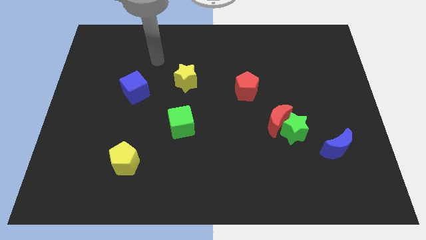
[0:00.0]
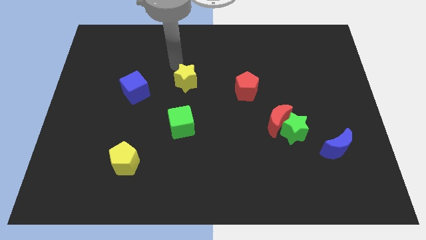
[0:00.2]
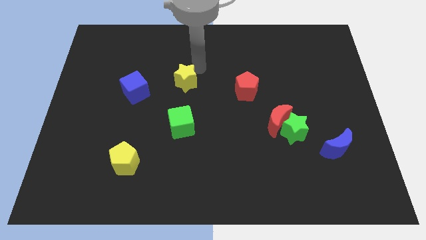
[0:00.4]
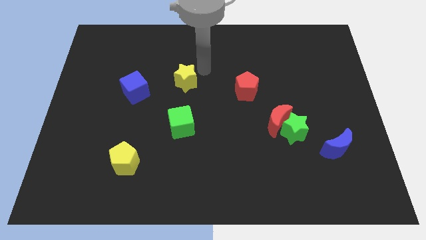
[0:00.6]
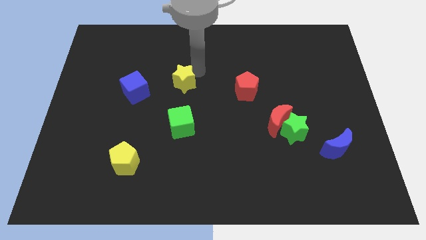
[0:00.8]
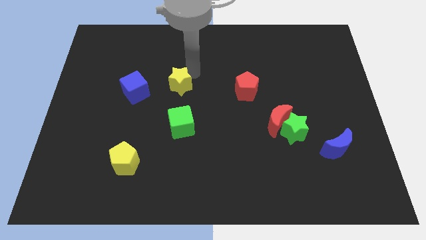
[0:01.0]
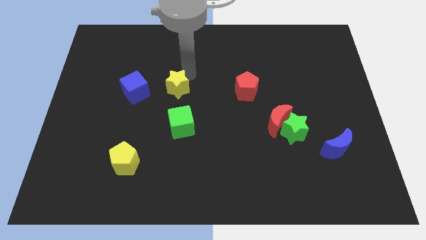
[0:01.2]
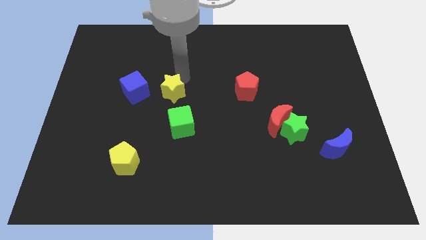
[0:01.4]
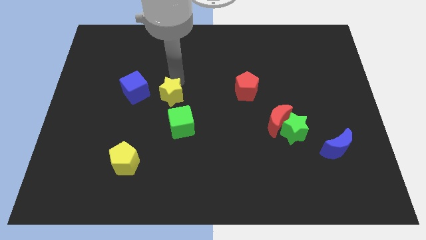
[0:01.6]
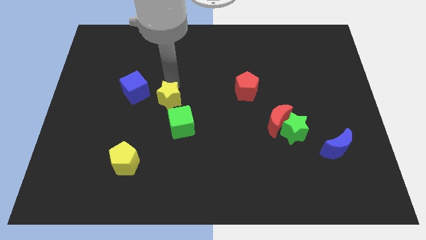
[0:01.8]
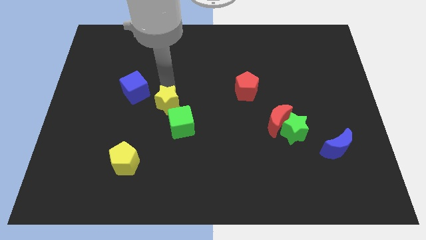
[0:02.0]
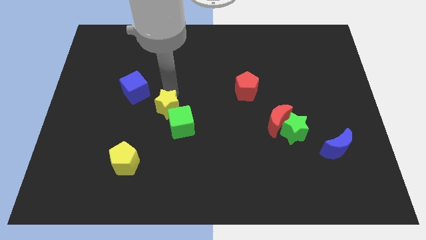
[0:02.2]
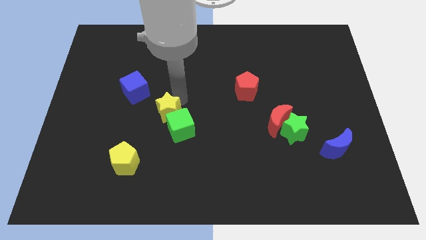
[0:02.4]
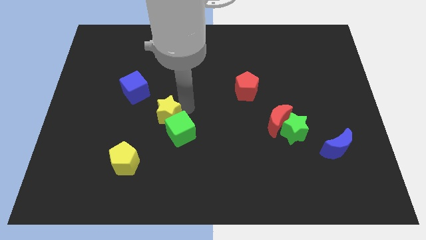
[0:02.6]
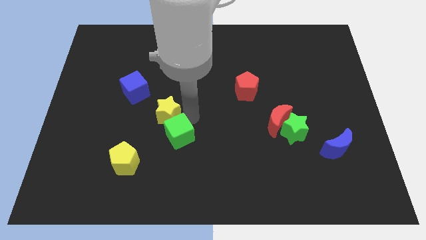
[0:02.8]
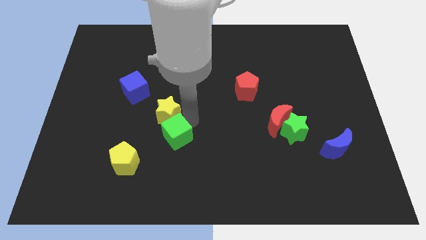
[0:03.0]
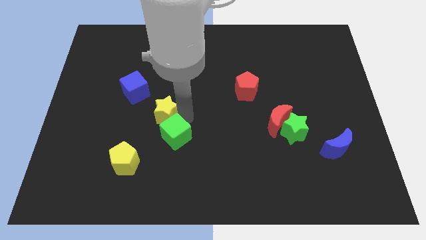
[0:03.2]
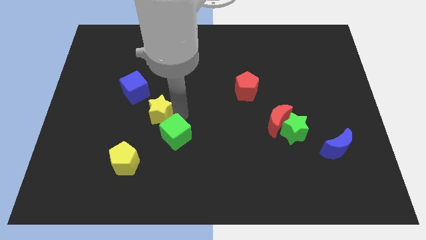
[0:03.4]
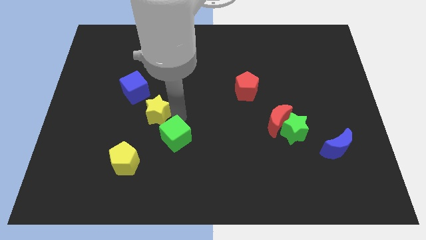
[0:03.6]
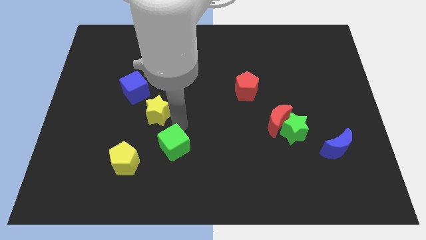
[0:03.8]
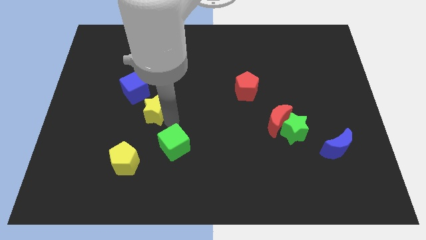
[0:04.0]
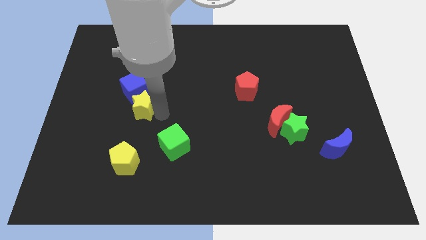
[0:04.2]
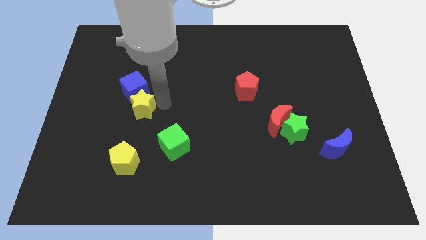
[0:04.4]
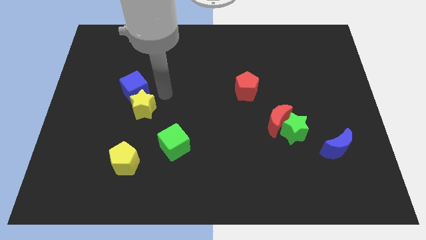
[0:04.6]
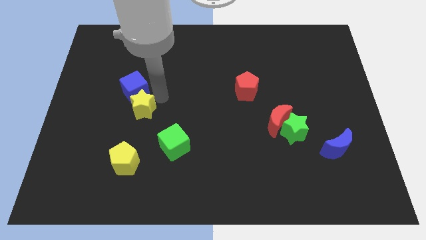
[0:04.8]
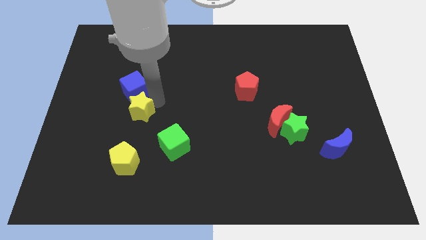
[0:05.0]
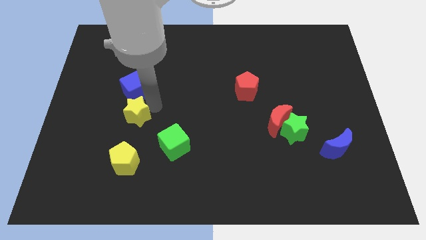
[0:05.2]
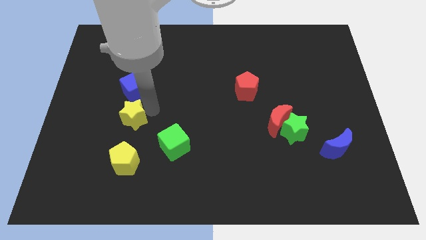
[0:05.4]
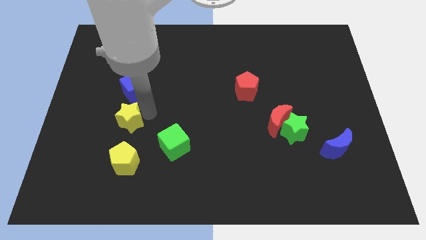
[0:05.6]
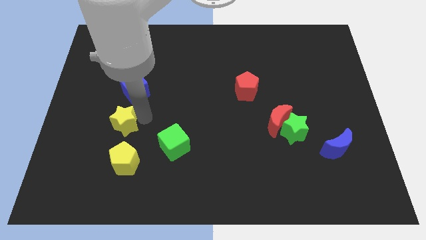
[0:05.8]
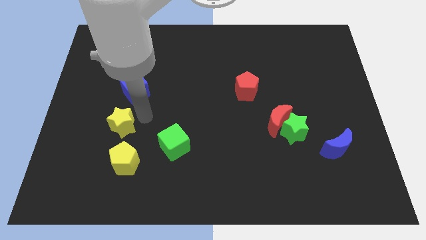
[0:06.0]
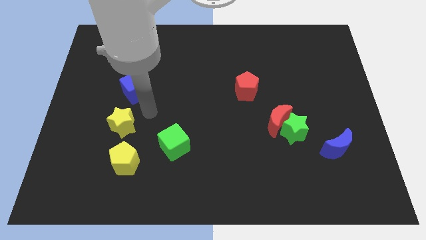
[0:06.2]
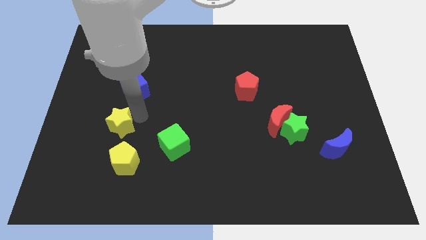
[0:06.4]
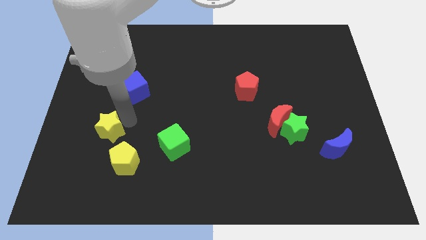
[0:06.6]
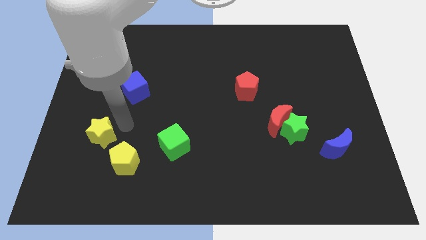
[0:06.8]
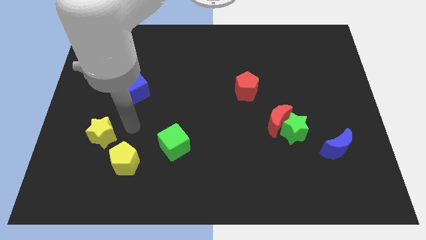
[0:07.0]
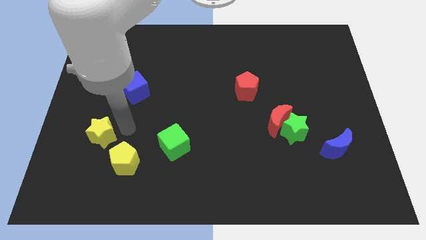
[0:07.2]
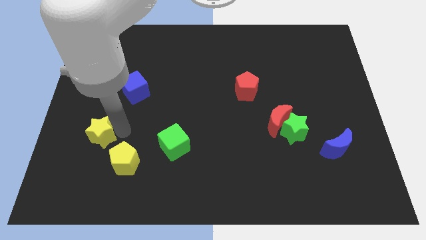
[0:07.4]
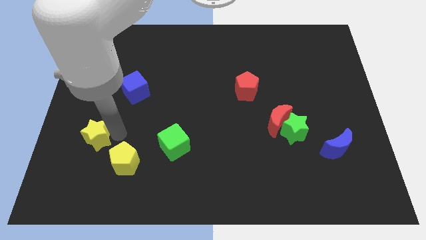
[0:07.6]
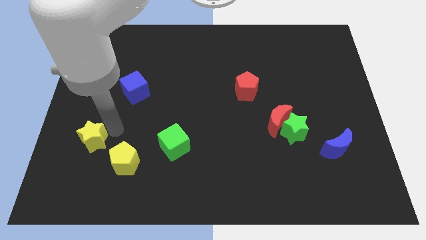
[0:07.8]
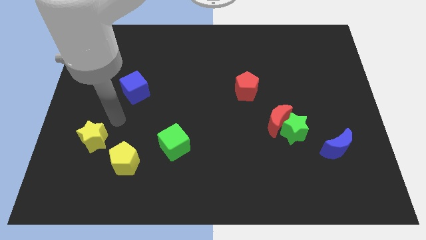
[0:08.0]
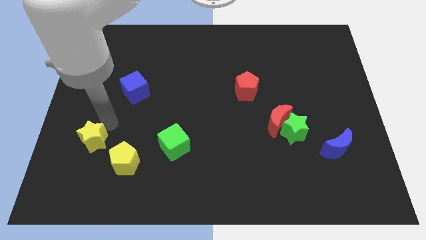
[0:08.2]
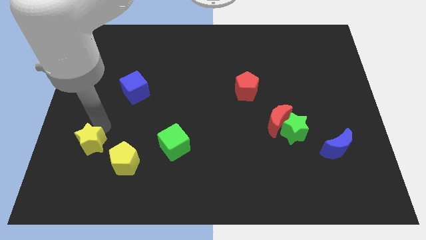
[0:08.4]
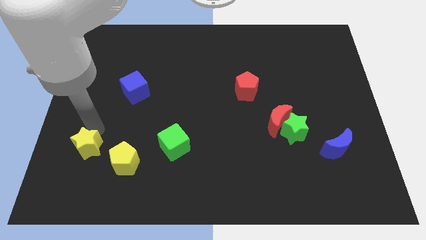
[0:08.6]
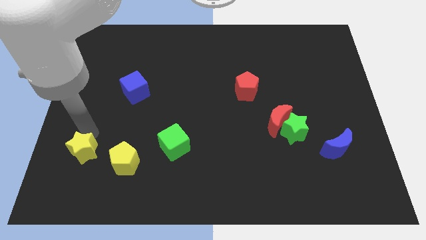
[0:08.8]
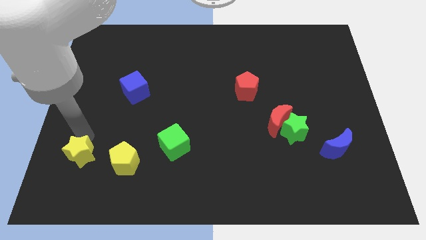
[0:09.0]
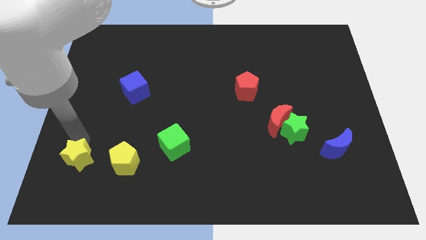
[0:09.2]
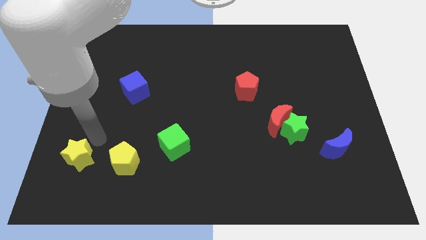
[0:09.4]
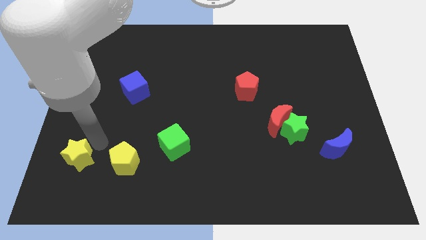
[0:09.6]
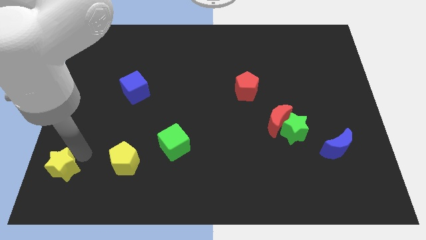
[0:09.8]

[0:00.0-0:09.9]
put the yellow star to the bottom left of the board

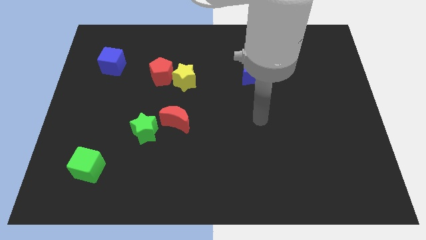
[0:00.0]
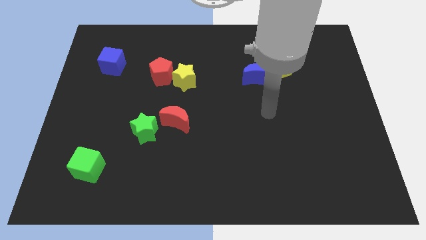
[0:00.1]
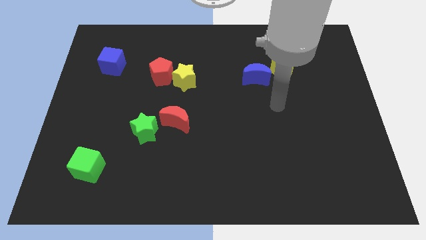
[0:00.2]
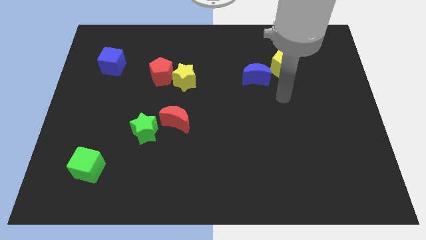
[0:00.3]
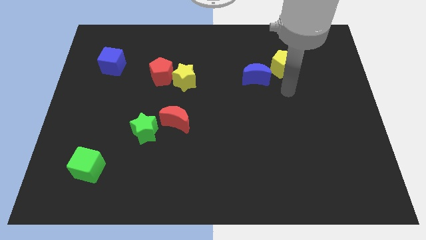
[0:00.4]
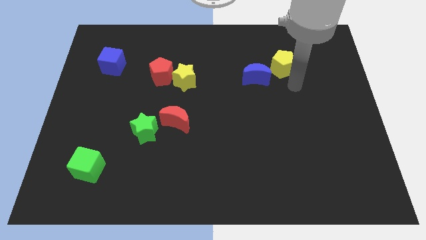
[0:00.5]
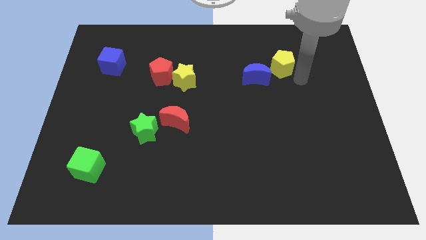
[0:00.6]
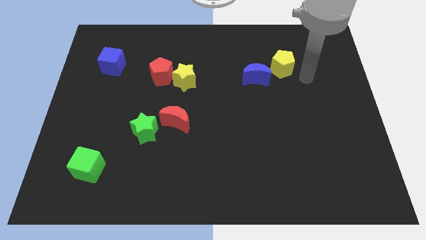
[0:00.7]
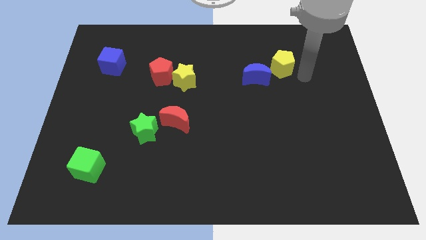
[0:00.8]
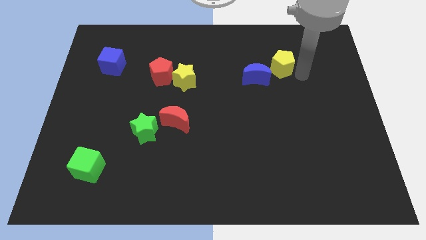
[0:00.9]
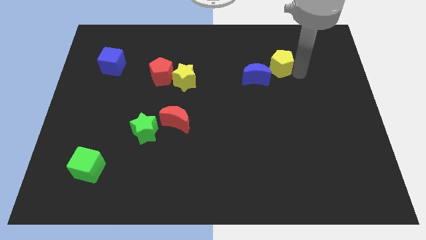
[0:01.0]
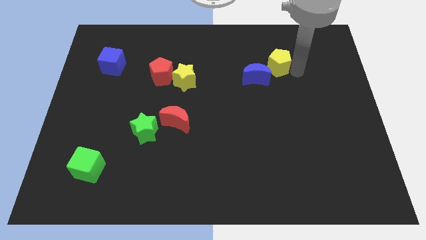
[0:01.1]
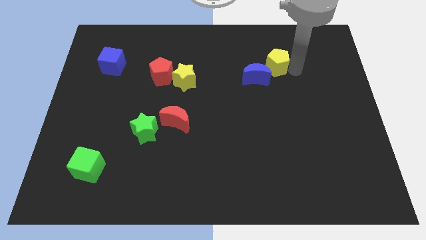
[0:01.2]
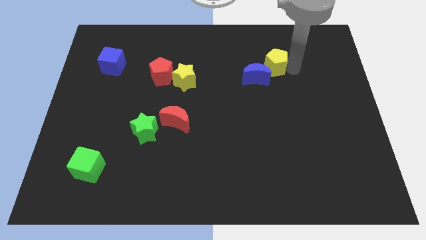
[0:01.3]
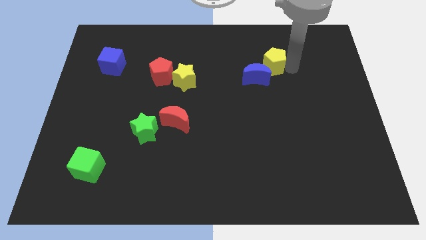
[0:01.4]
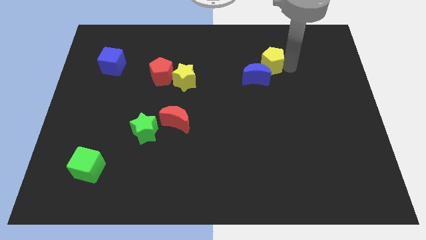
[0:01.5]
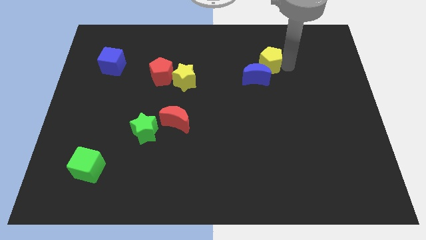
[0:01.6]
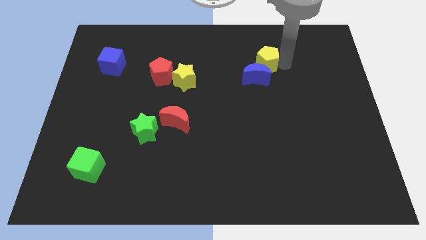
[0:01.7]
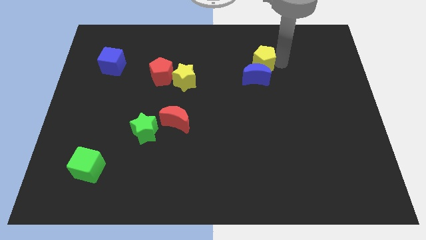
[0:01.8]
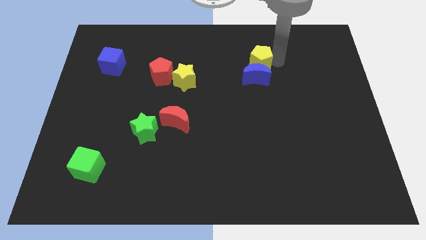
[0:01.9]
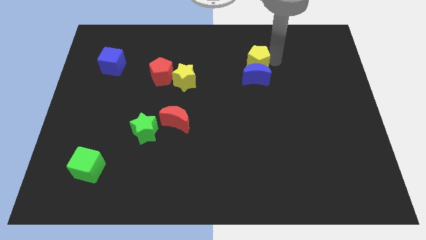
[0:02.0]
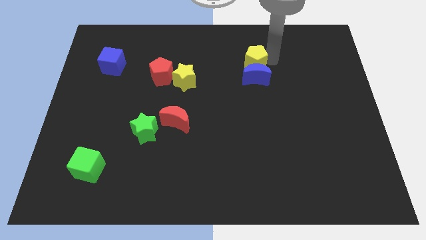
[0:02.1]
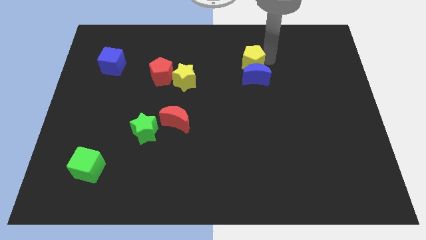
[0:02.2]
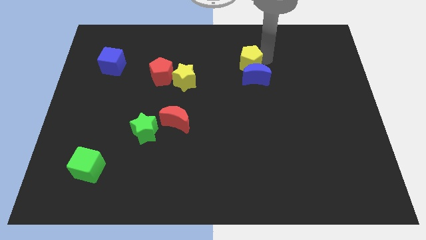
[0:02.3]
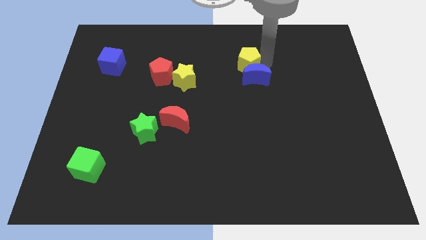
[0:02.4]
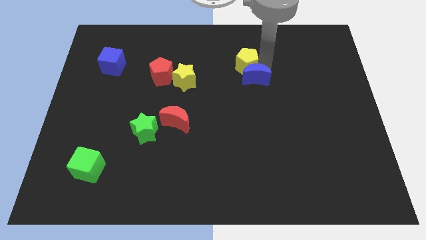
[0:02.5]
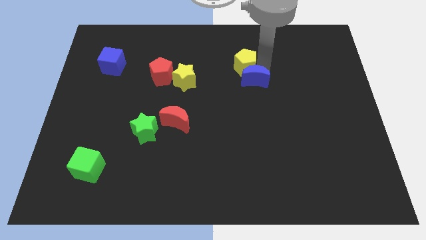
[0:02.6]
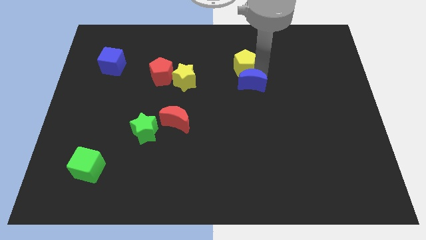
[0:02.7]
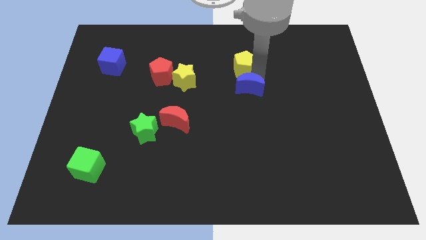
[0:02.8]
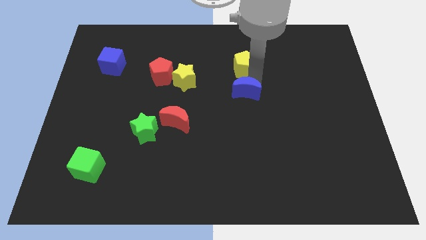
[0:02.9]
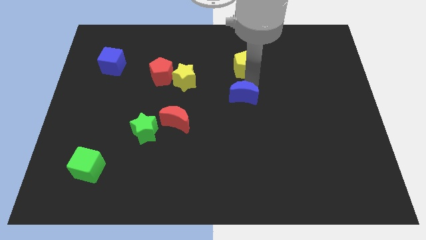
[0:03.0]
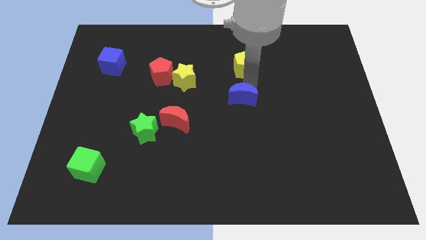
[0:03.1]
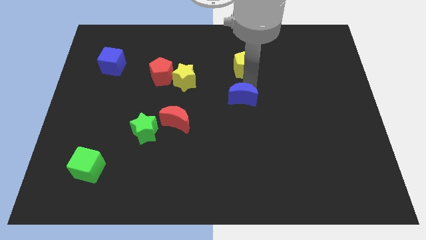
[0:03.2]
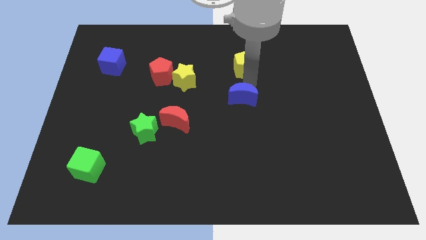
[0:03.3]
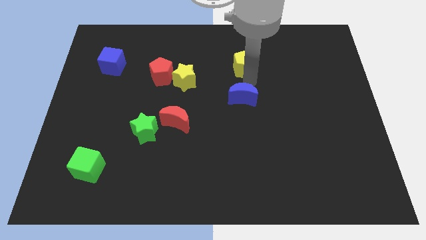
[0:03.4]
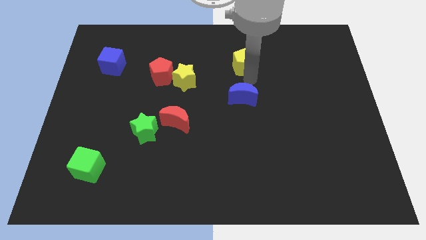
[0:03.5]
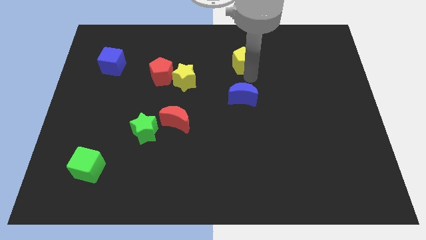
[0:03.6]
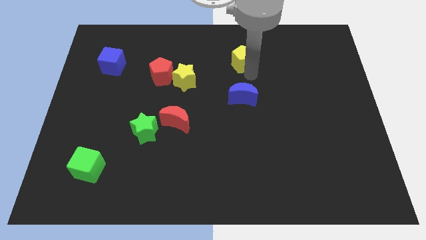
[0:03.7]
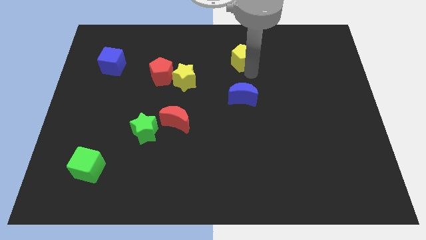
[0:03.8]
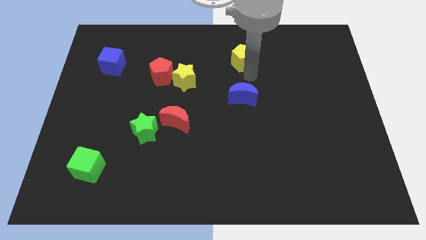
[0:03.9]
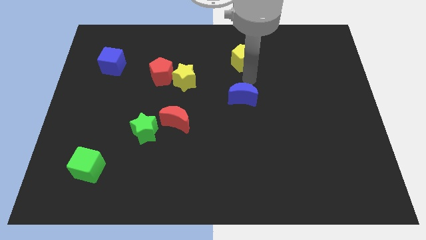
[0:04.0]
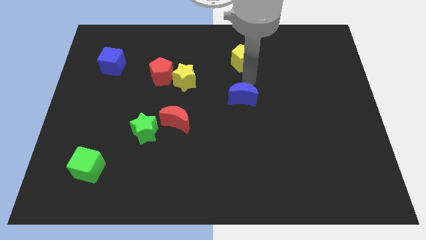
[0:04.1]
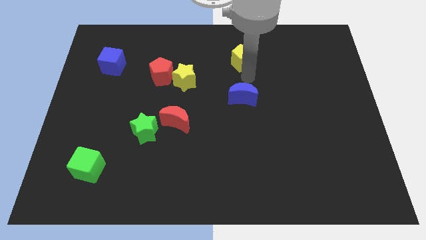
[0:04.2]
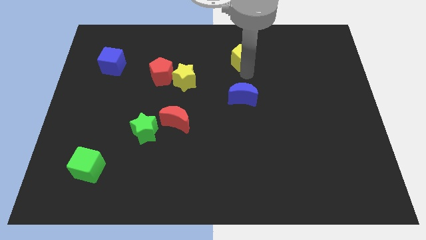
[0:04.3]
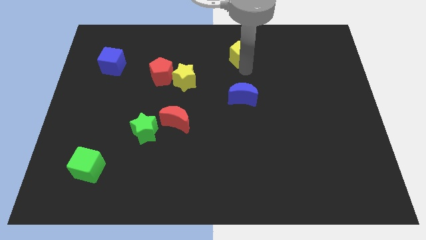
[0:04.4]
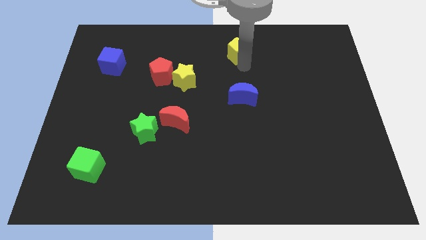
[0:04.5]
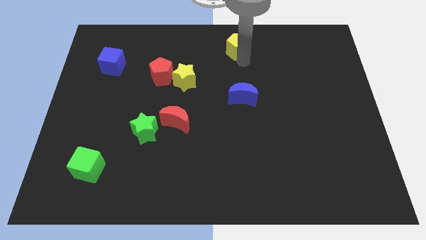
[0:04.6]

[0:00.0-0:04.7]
slide the yellow pentagon to the top side
